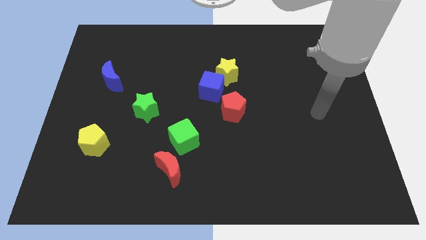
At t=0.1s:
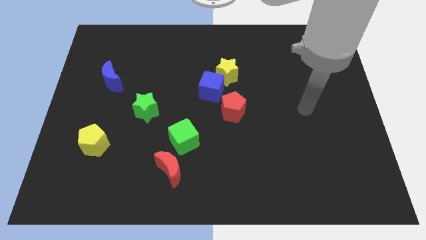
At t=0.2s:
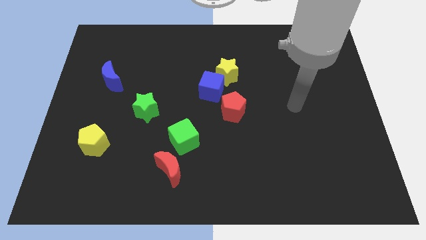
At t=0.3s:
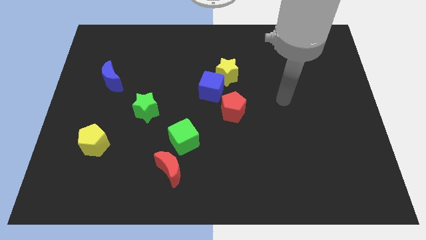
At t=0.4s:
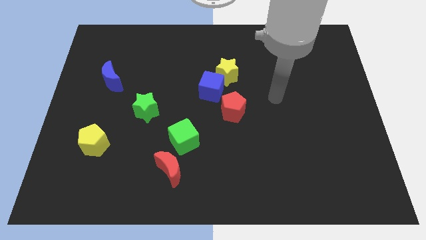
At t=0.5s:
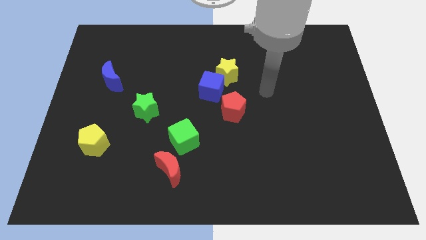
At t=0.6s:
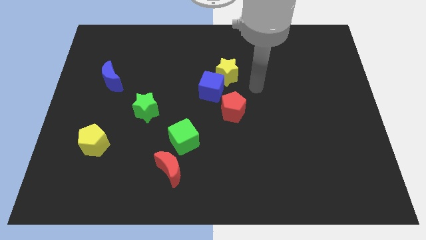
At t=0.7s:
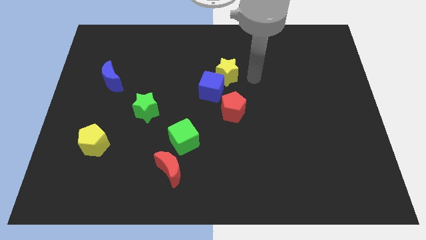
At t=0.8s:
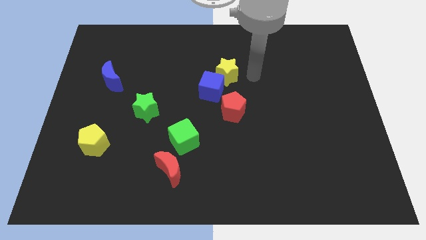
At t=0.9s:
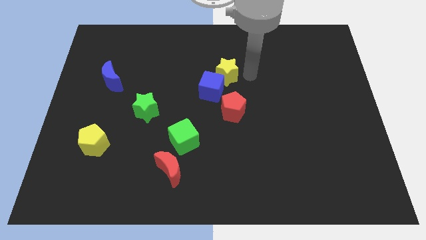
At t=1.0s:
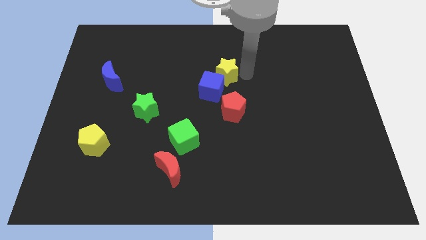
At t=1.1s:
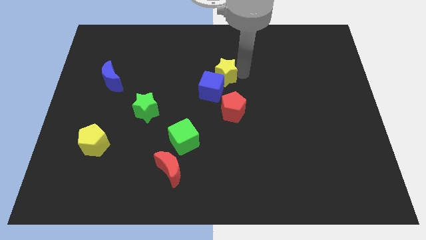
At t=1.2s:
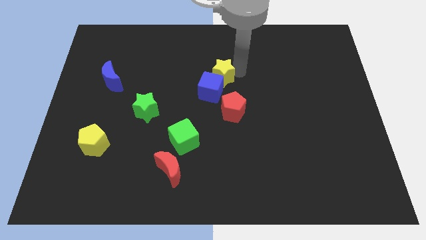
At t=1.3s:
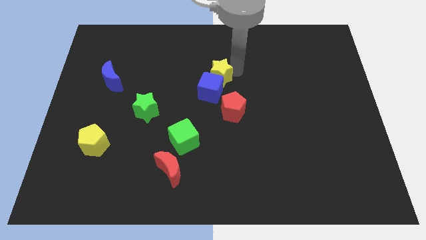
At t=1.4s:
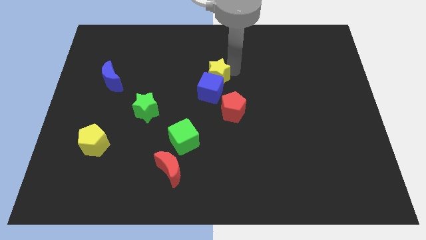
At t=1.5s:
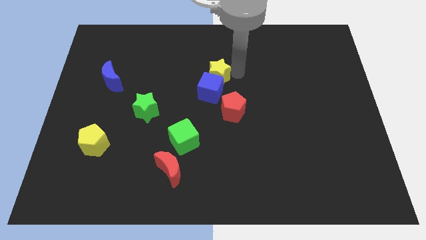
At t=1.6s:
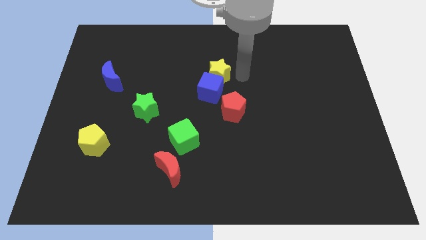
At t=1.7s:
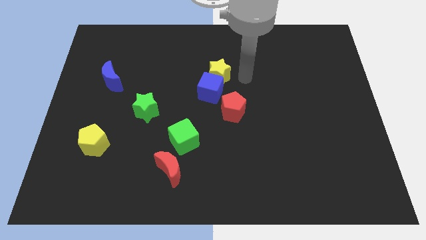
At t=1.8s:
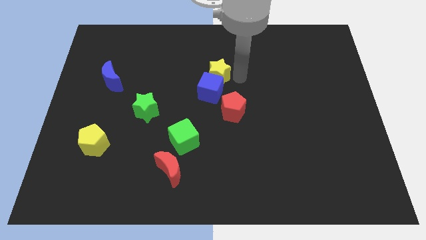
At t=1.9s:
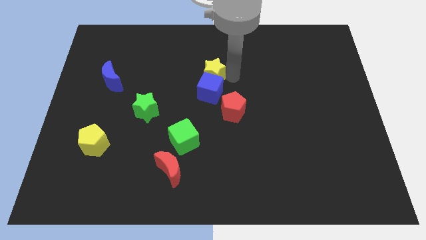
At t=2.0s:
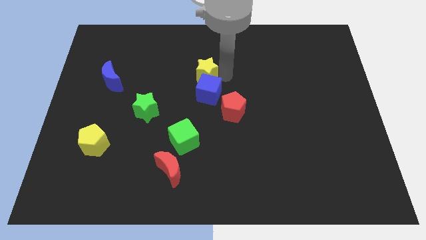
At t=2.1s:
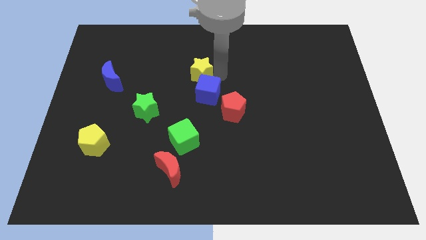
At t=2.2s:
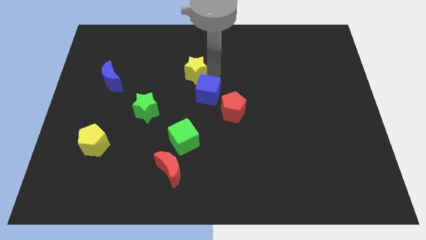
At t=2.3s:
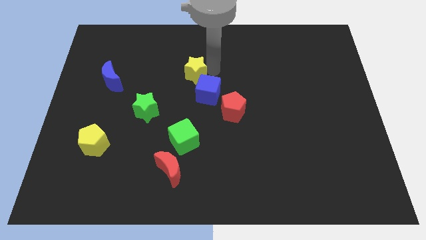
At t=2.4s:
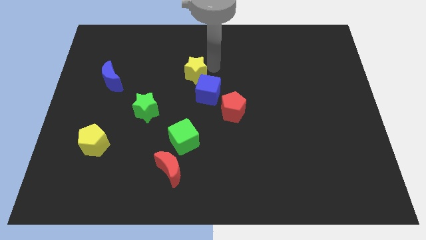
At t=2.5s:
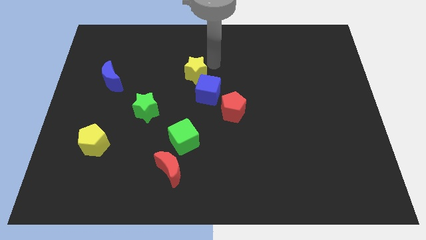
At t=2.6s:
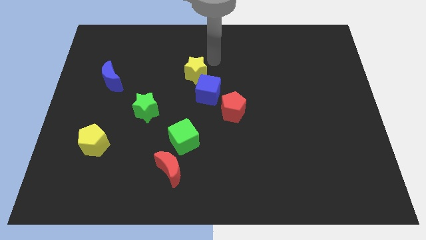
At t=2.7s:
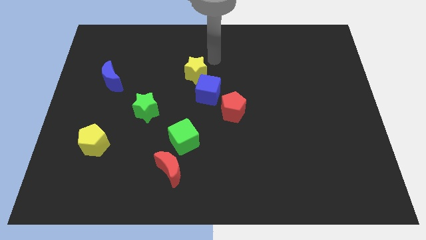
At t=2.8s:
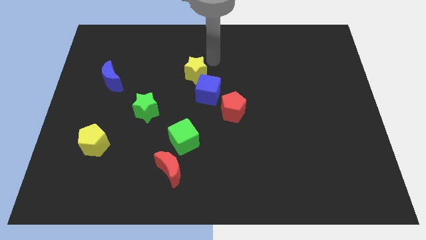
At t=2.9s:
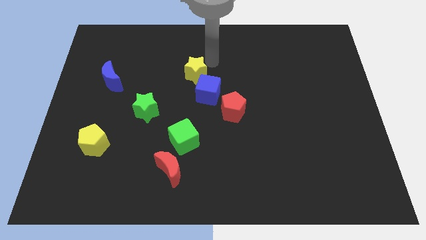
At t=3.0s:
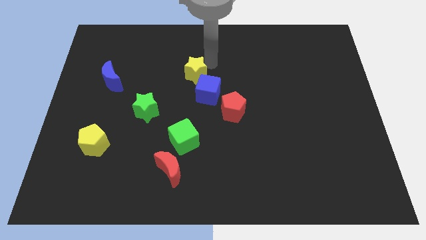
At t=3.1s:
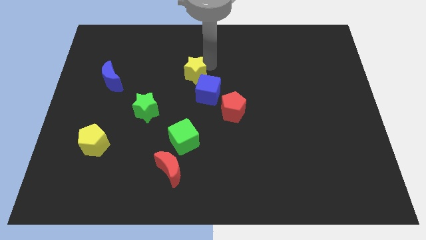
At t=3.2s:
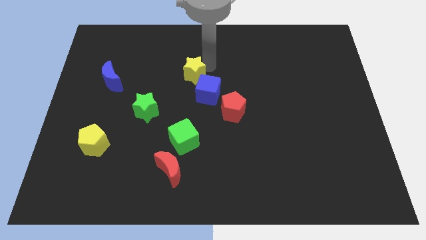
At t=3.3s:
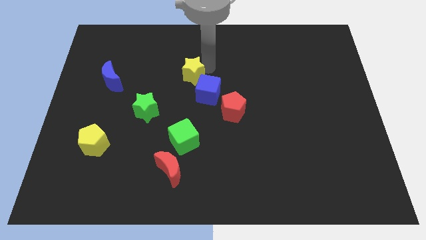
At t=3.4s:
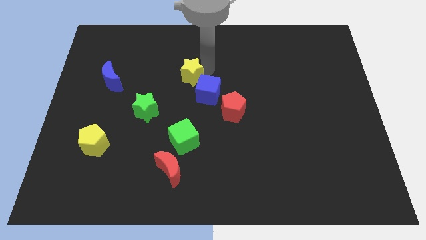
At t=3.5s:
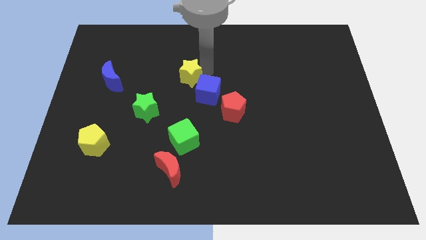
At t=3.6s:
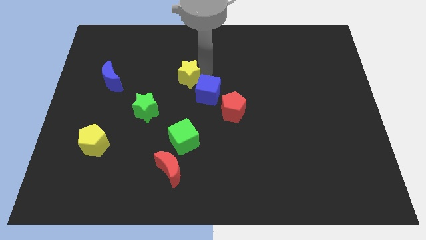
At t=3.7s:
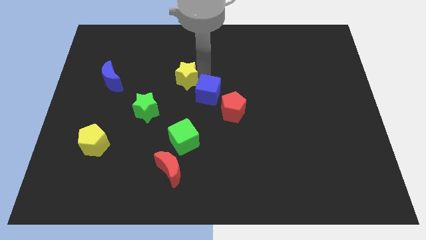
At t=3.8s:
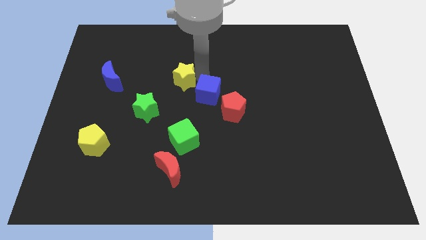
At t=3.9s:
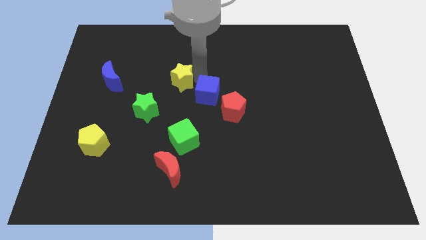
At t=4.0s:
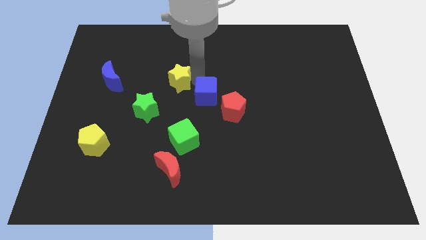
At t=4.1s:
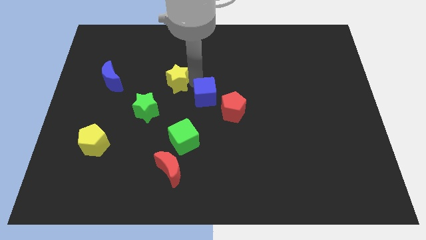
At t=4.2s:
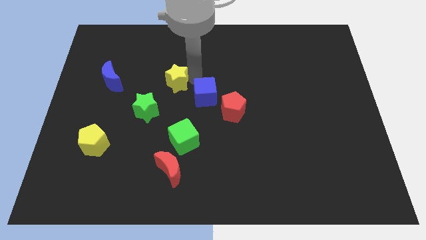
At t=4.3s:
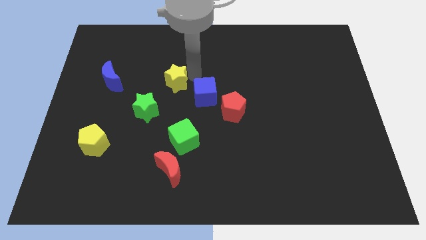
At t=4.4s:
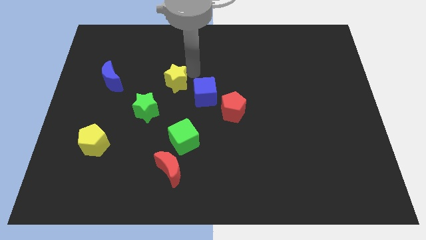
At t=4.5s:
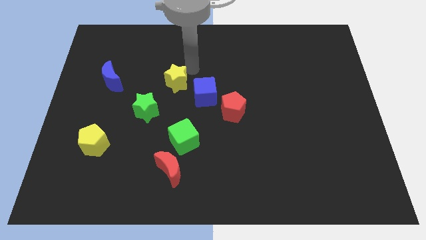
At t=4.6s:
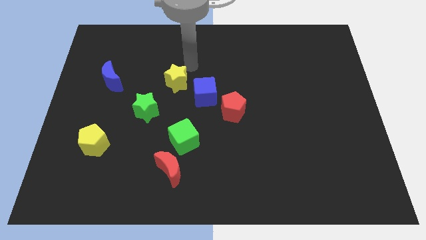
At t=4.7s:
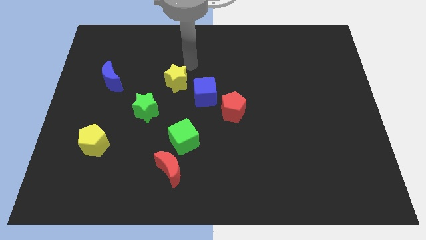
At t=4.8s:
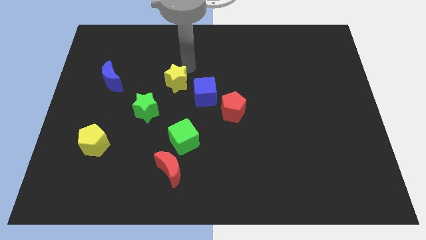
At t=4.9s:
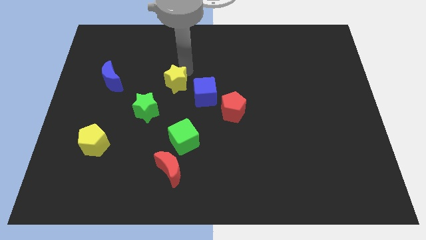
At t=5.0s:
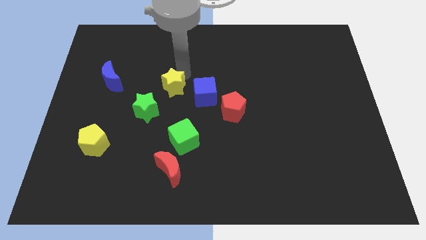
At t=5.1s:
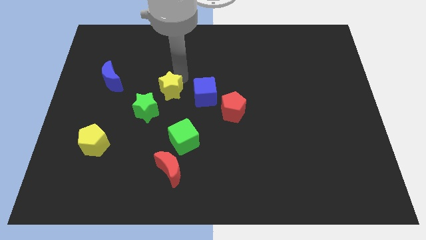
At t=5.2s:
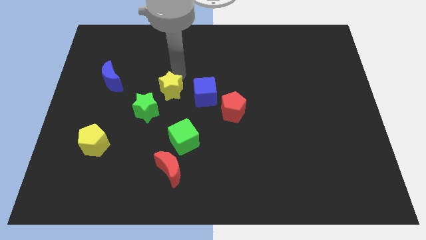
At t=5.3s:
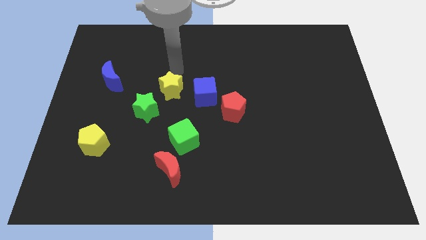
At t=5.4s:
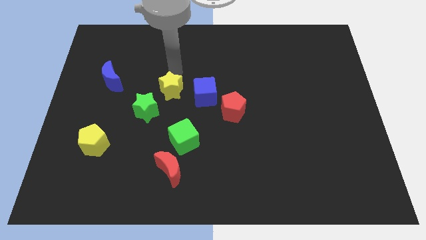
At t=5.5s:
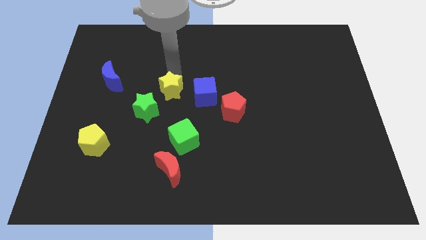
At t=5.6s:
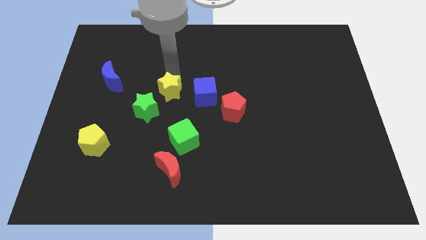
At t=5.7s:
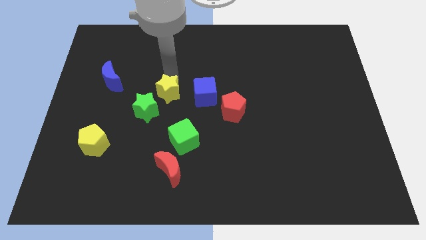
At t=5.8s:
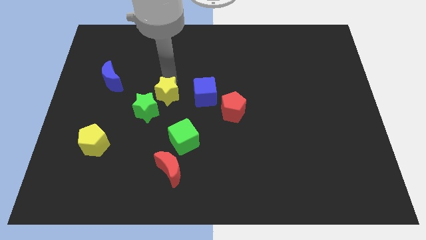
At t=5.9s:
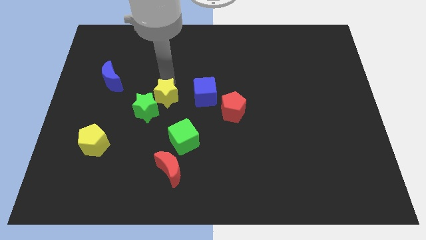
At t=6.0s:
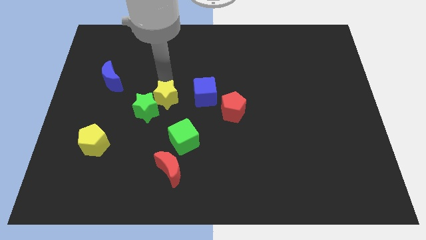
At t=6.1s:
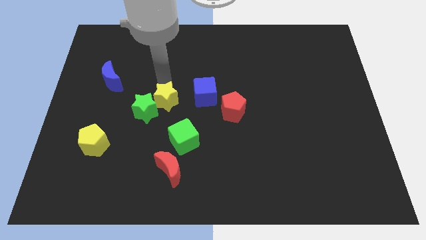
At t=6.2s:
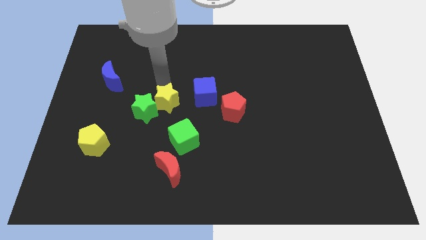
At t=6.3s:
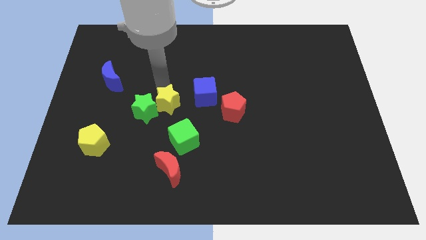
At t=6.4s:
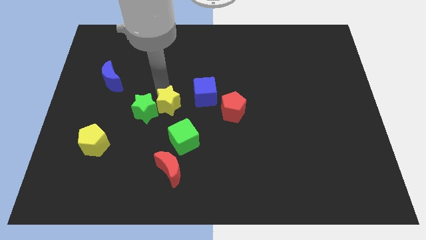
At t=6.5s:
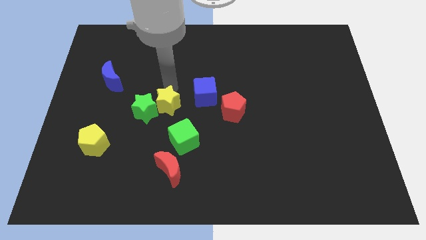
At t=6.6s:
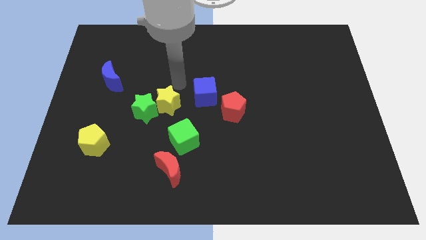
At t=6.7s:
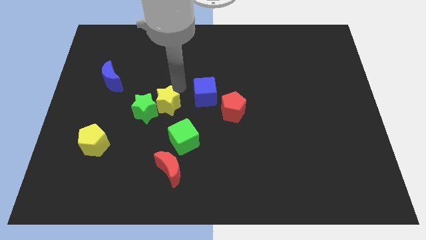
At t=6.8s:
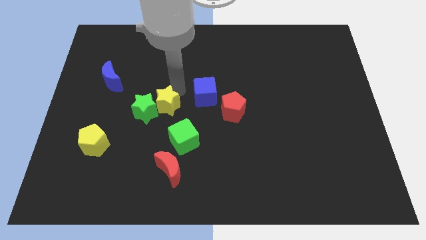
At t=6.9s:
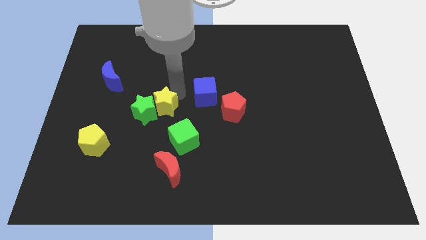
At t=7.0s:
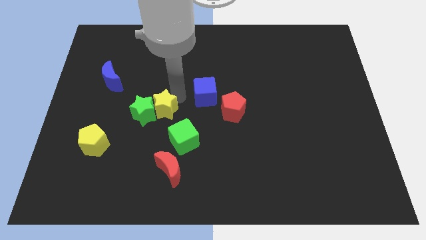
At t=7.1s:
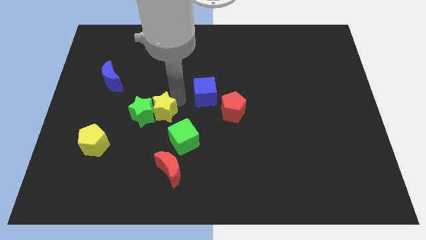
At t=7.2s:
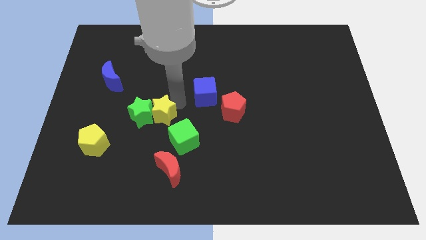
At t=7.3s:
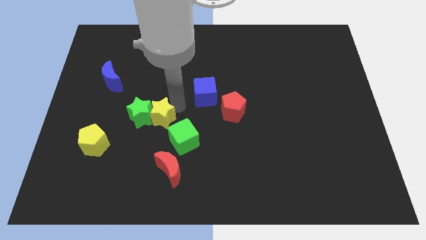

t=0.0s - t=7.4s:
slide the yellow star down and to the left diagonally

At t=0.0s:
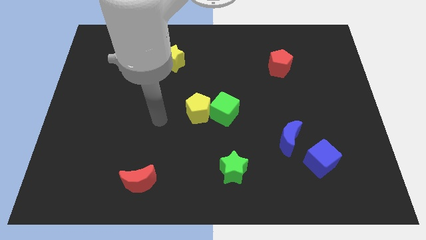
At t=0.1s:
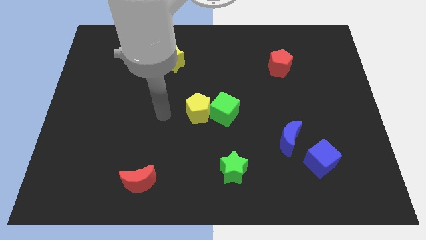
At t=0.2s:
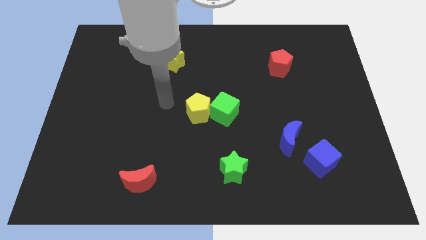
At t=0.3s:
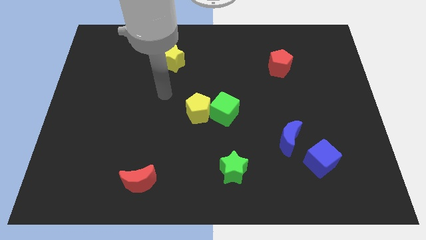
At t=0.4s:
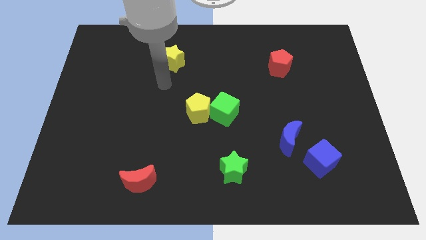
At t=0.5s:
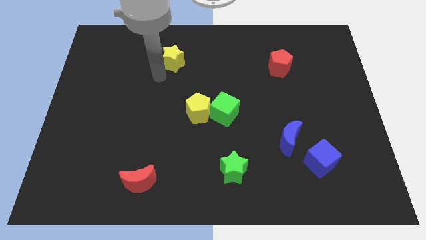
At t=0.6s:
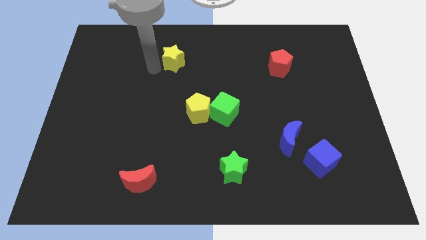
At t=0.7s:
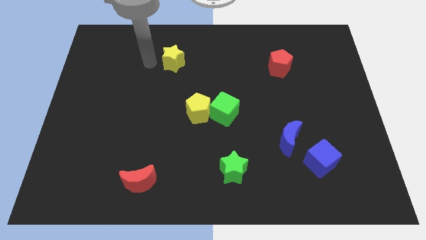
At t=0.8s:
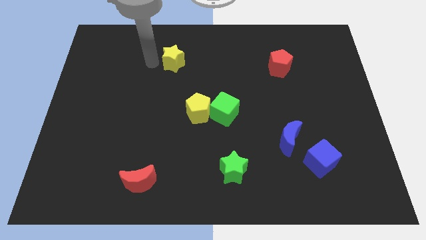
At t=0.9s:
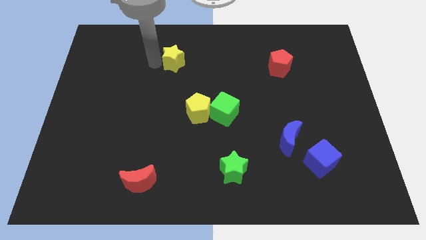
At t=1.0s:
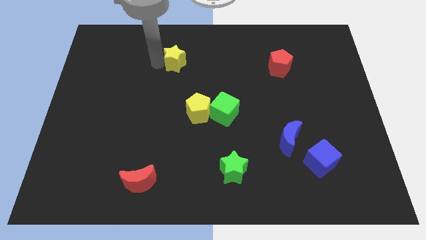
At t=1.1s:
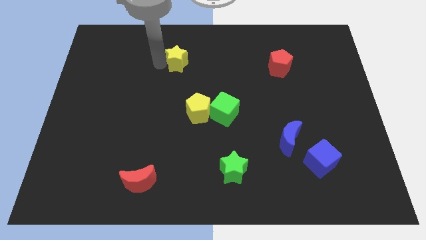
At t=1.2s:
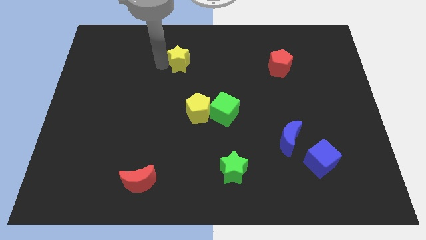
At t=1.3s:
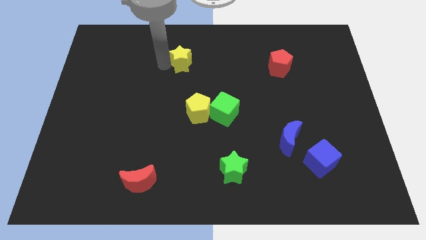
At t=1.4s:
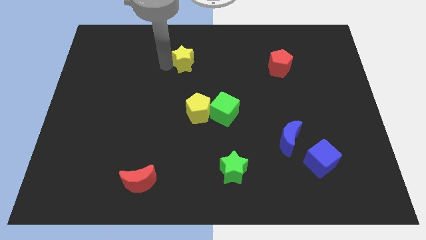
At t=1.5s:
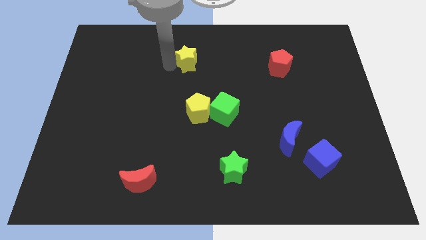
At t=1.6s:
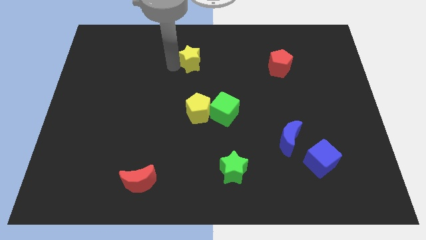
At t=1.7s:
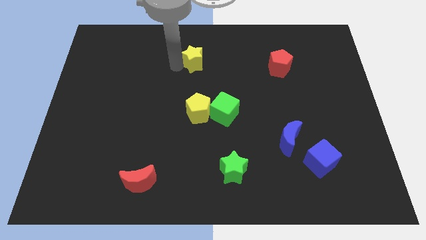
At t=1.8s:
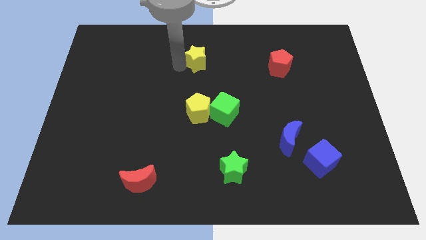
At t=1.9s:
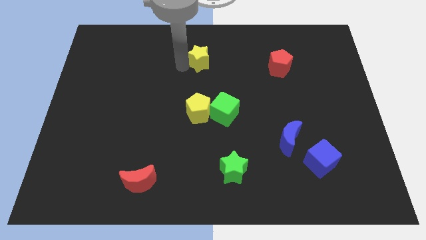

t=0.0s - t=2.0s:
slightly move the yellow star to the right
